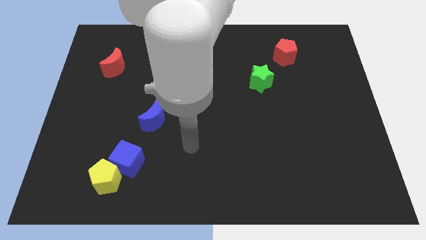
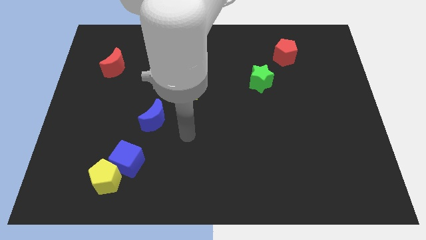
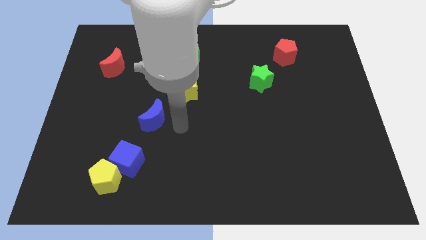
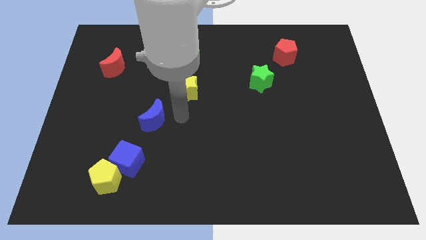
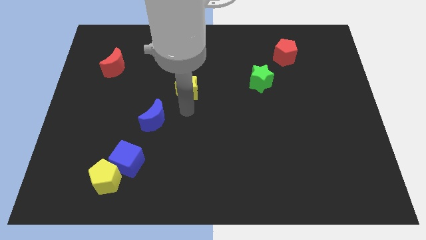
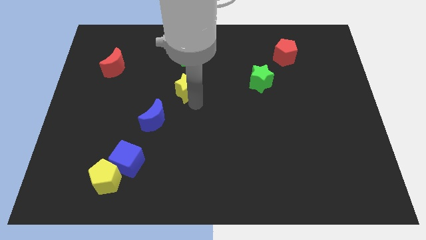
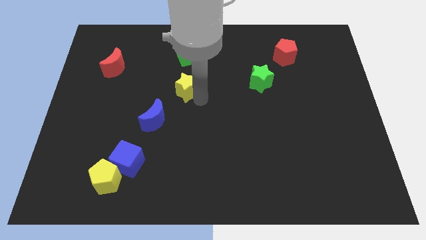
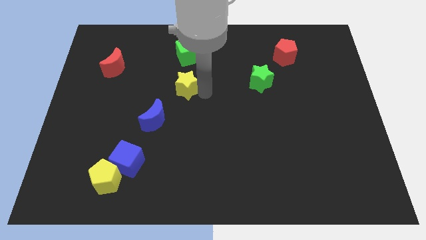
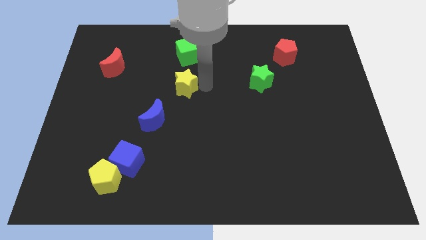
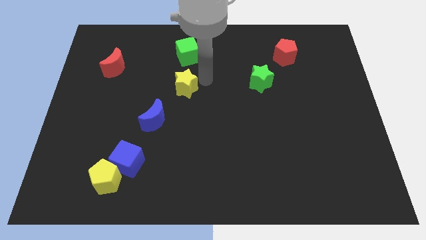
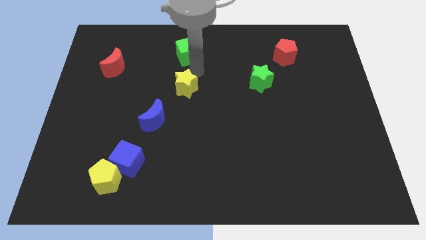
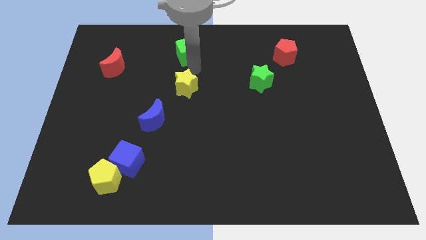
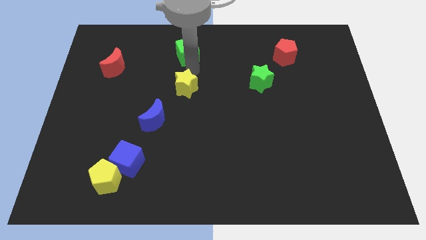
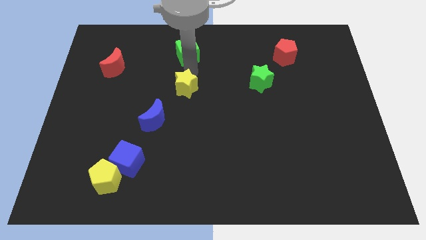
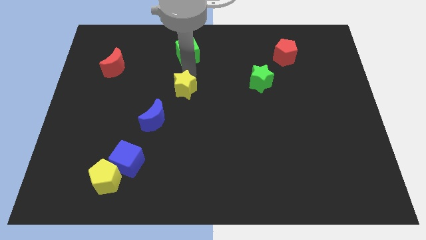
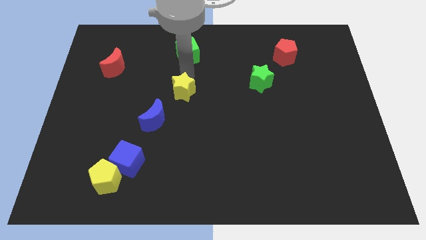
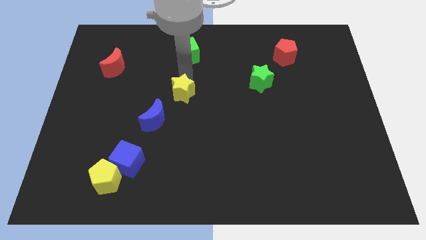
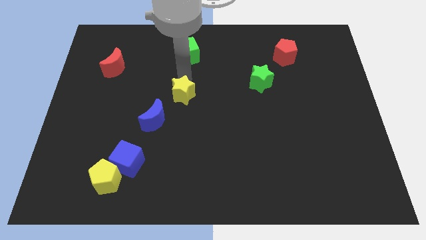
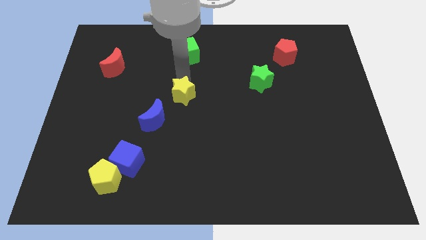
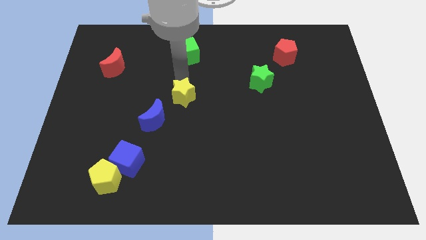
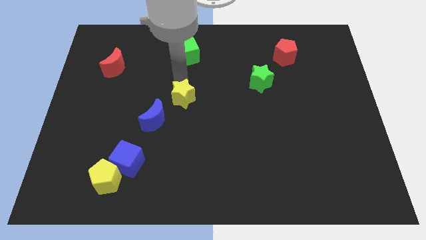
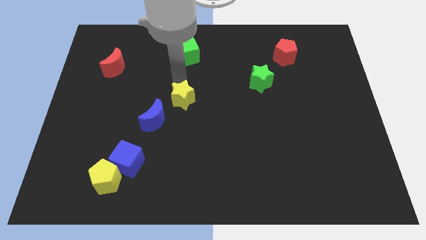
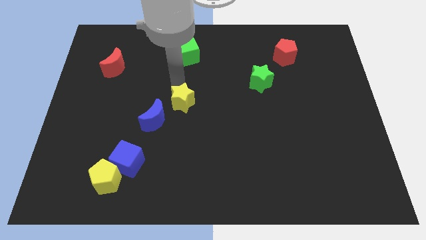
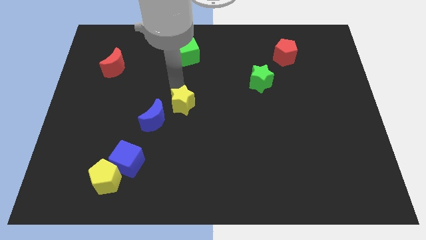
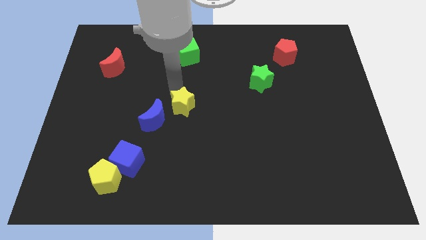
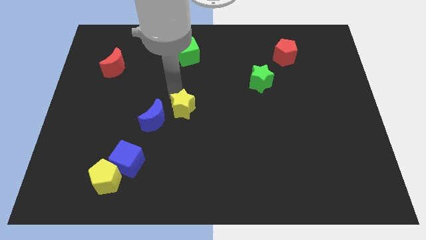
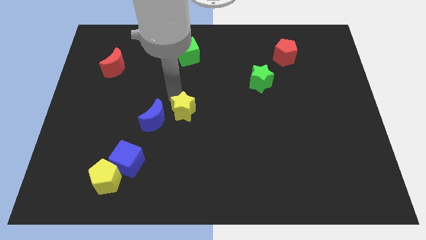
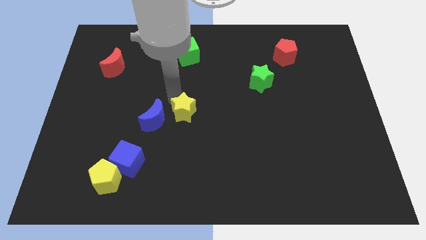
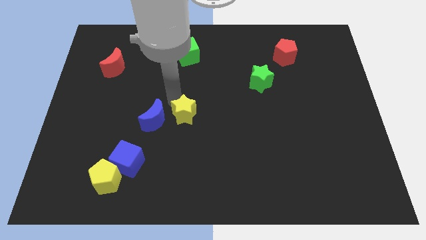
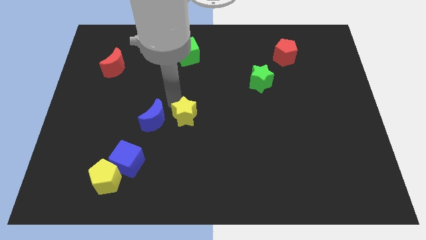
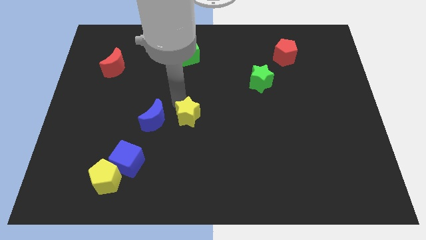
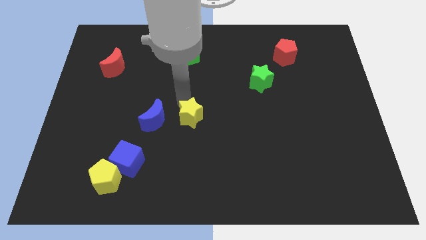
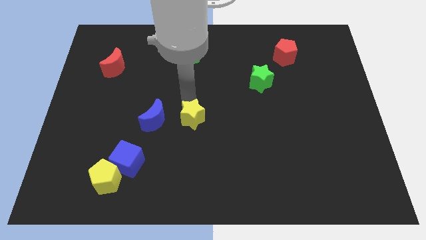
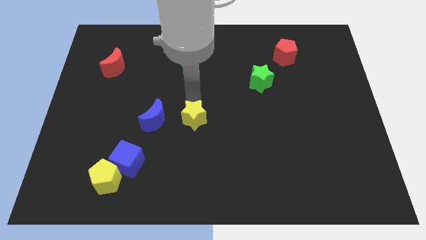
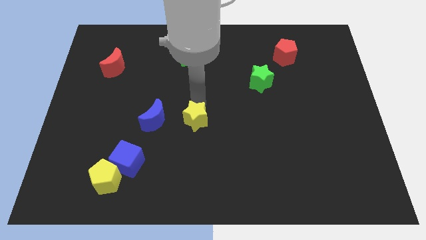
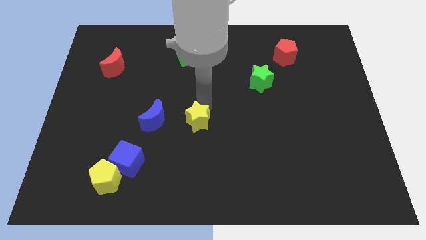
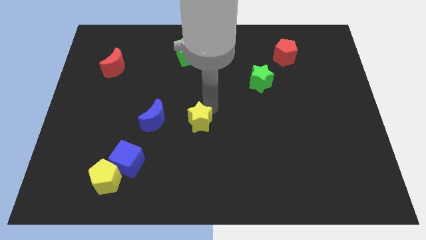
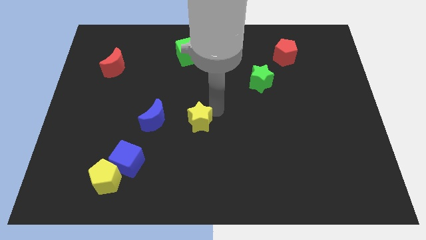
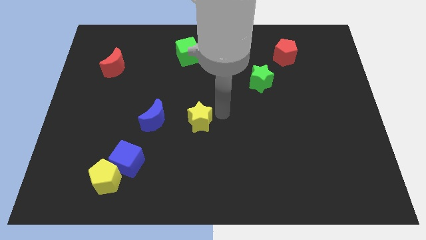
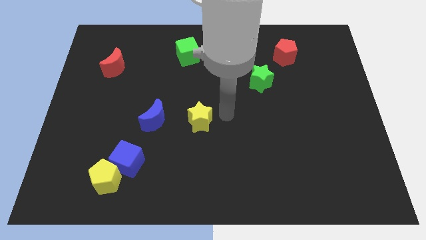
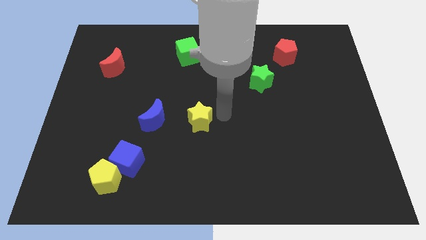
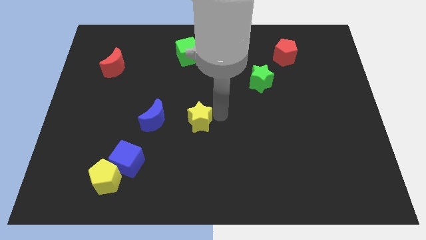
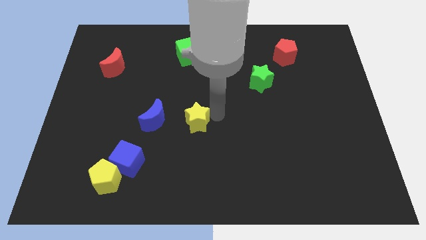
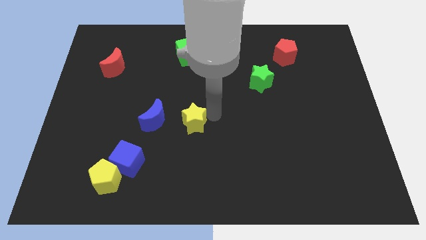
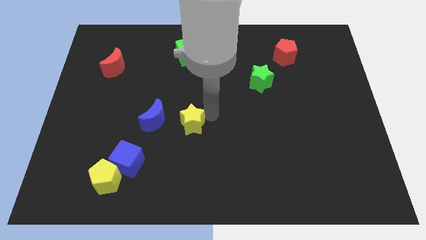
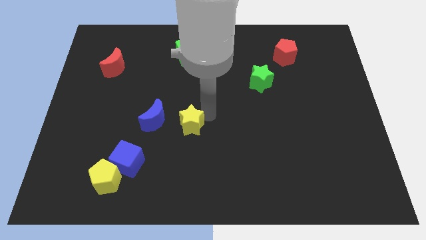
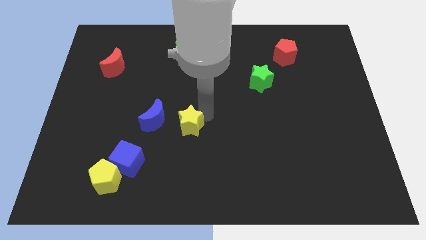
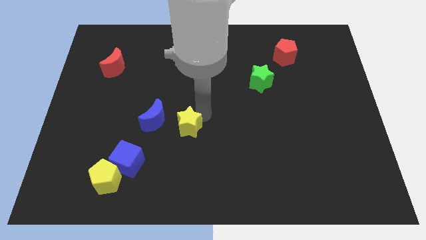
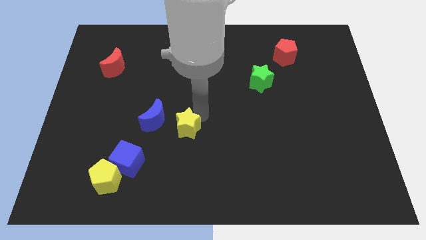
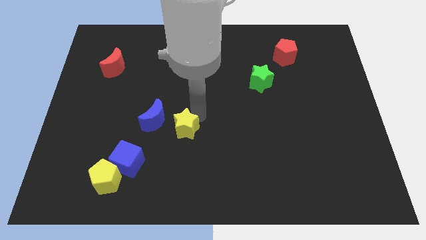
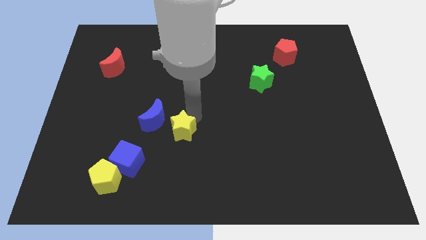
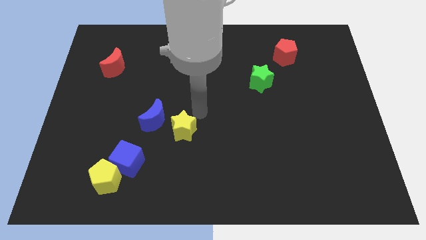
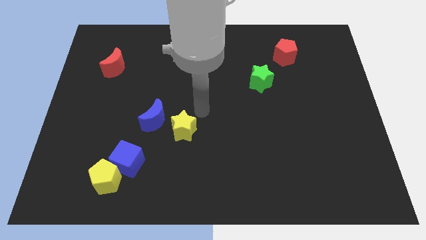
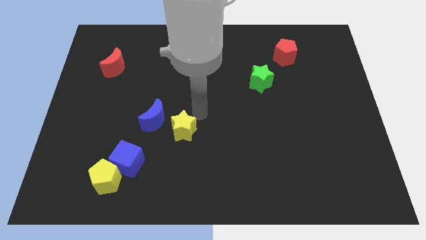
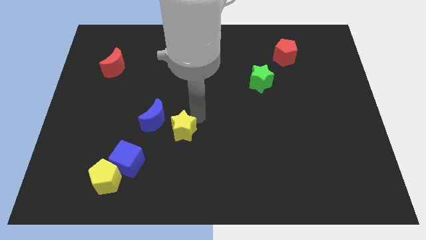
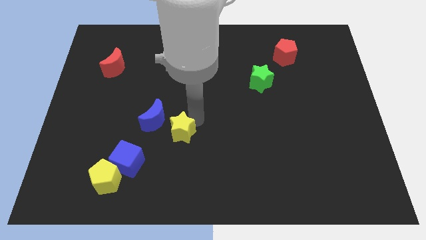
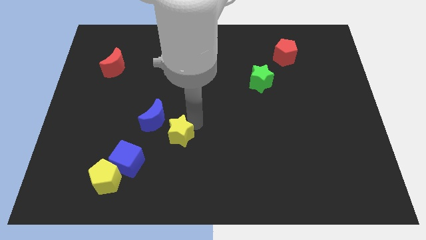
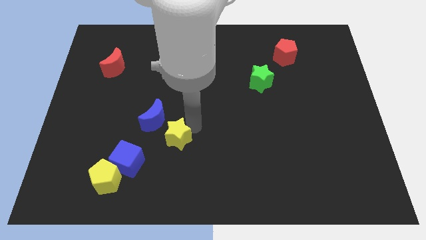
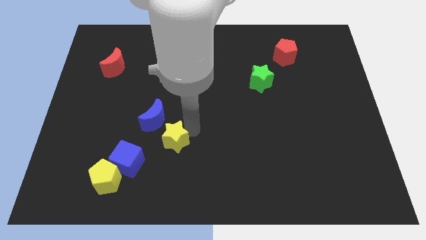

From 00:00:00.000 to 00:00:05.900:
put the yellow star to the bottom of the blue moon
